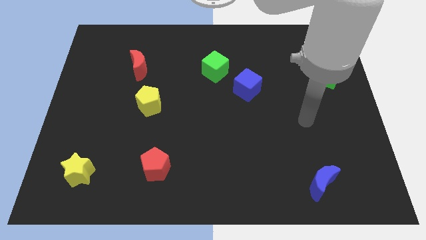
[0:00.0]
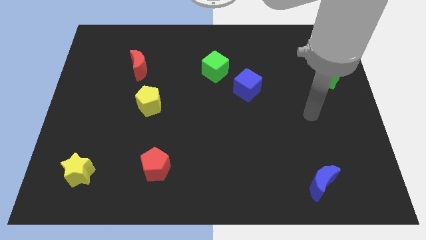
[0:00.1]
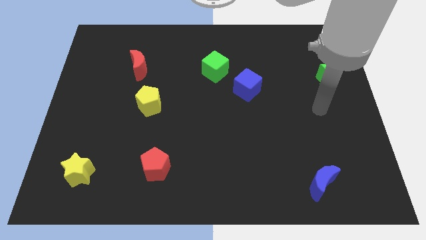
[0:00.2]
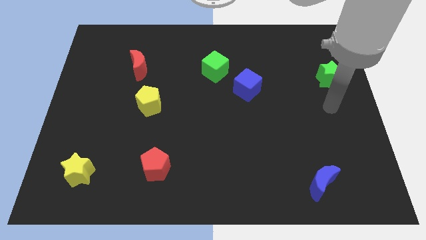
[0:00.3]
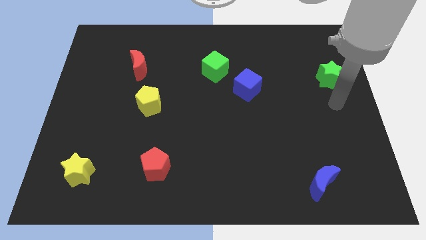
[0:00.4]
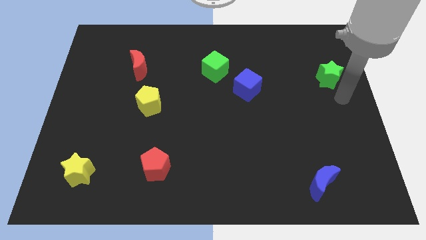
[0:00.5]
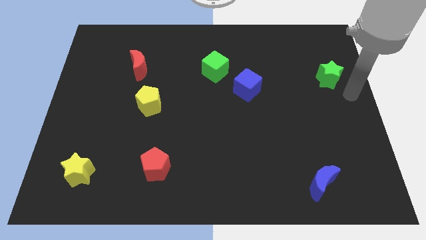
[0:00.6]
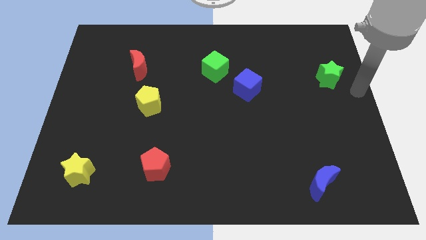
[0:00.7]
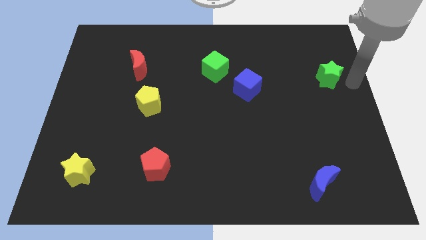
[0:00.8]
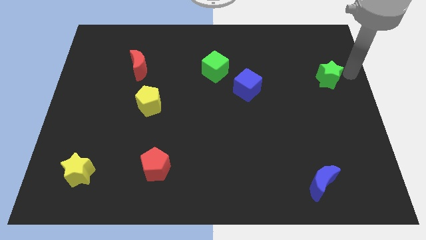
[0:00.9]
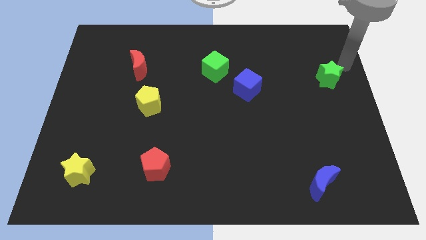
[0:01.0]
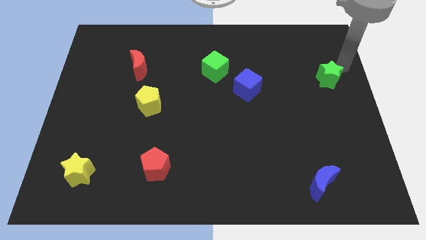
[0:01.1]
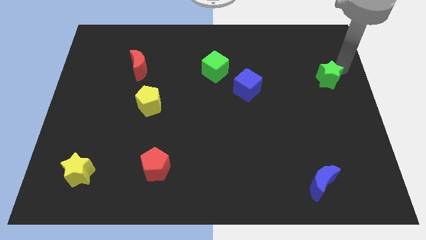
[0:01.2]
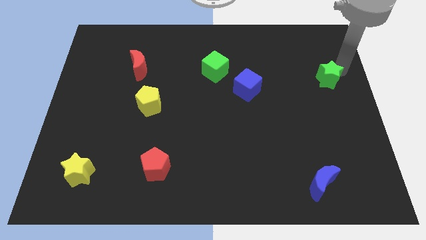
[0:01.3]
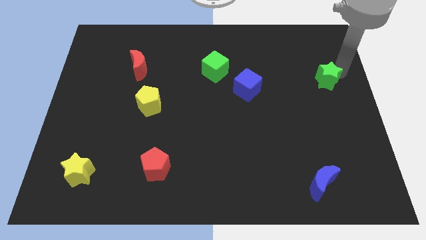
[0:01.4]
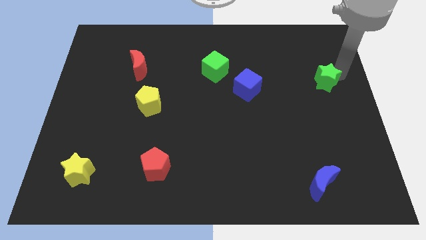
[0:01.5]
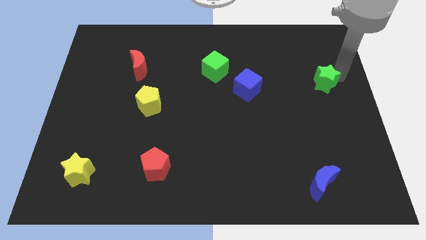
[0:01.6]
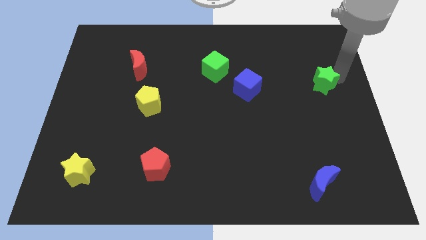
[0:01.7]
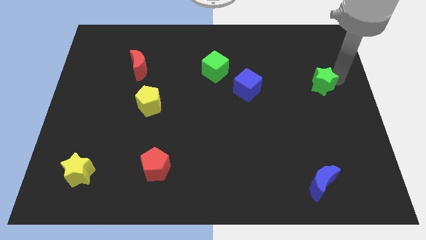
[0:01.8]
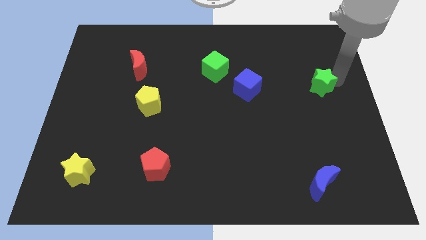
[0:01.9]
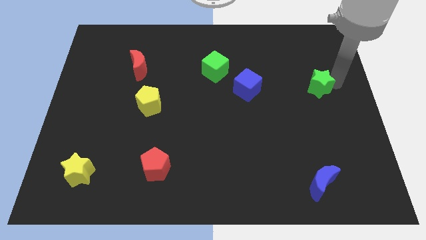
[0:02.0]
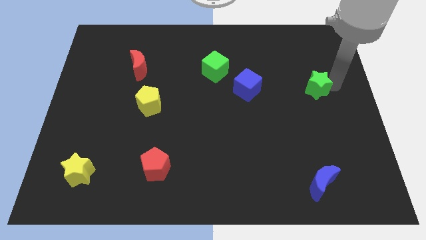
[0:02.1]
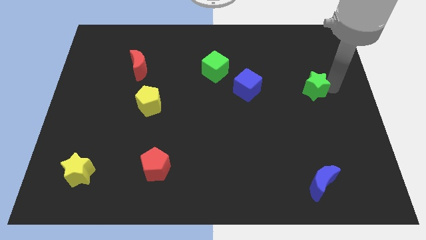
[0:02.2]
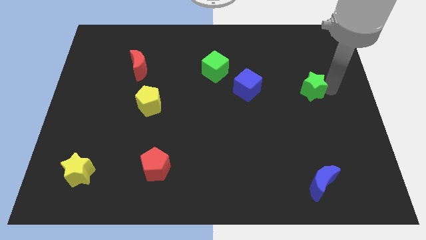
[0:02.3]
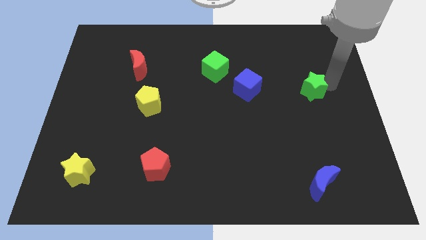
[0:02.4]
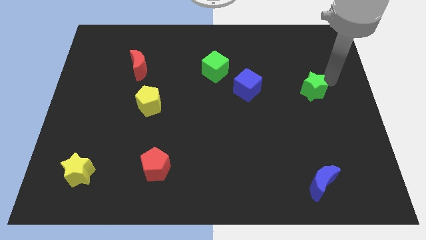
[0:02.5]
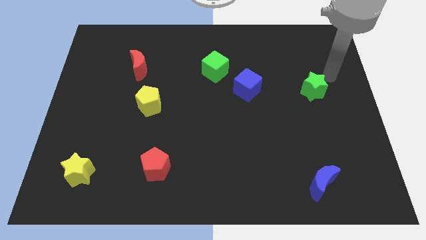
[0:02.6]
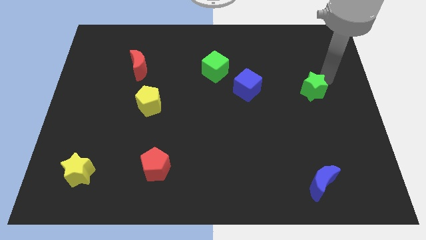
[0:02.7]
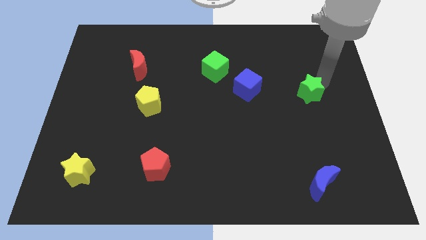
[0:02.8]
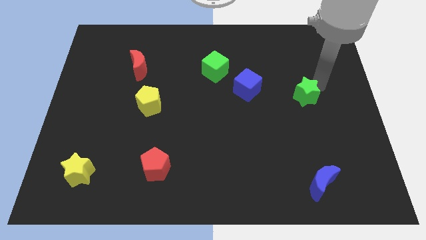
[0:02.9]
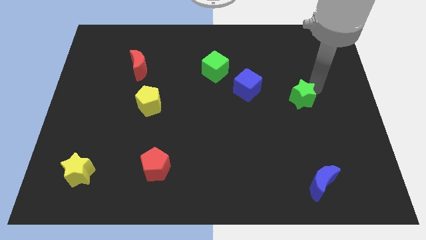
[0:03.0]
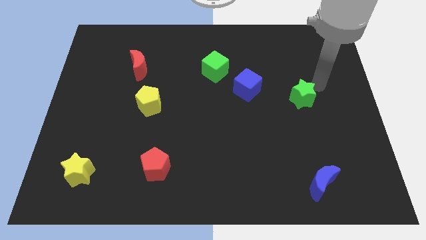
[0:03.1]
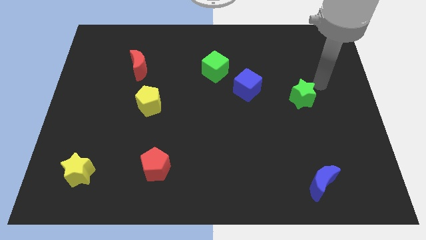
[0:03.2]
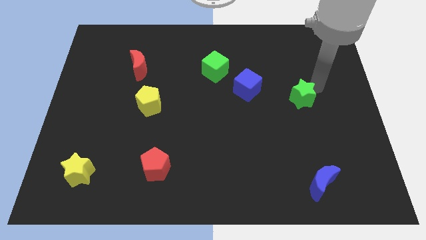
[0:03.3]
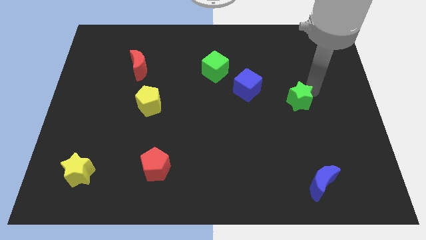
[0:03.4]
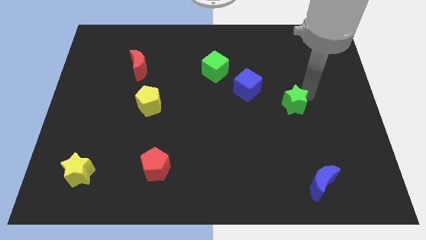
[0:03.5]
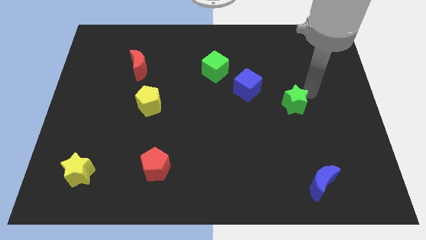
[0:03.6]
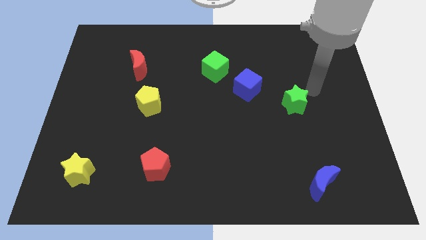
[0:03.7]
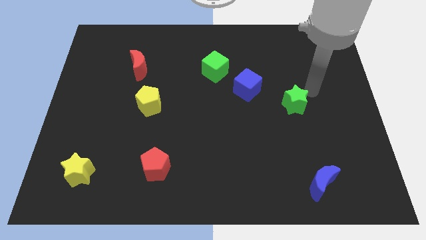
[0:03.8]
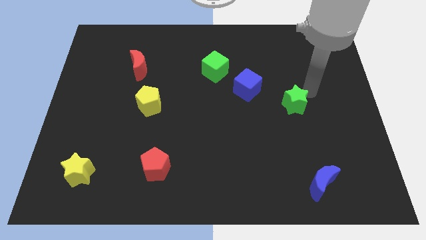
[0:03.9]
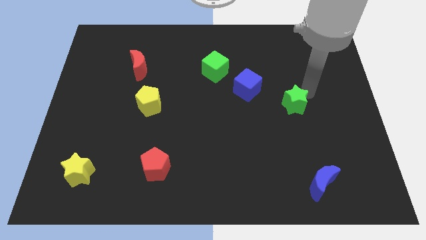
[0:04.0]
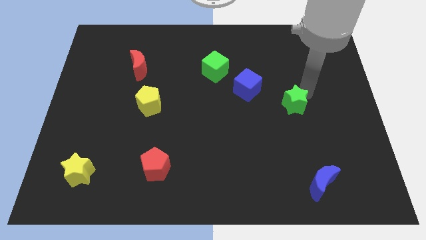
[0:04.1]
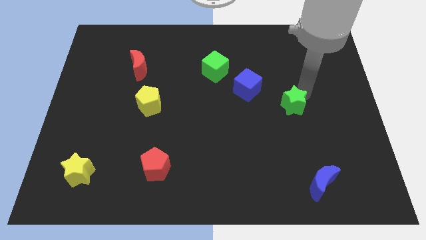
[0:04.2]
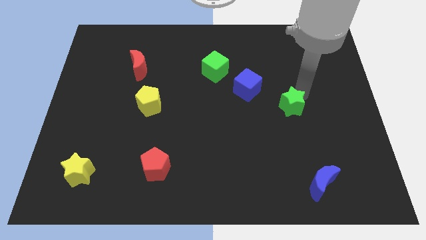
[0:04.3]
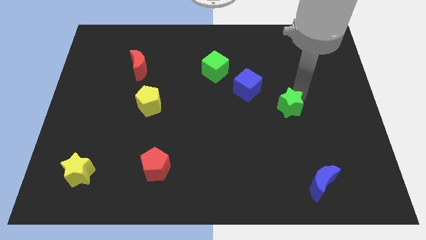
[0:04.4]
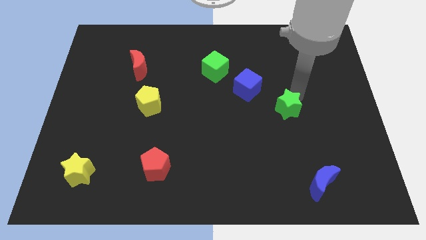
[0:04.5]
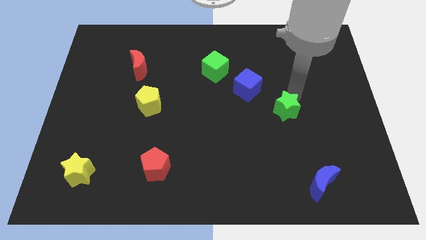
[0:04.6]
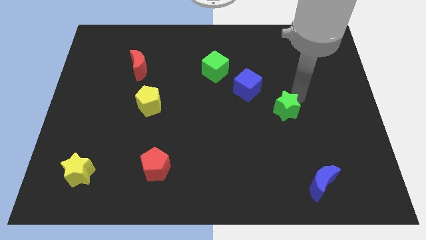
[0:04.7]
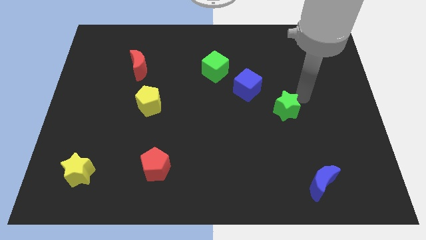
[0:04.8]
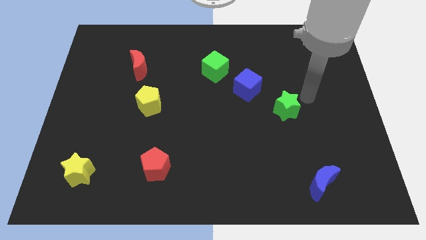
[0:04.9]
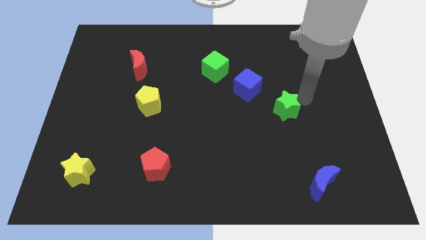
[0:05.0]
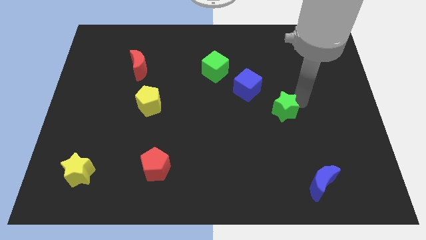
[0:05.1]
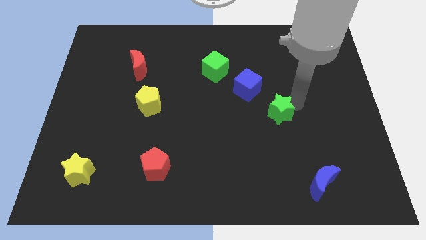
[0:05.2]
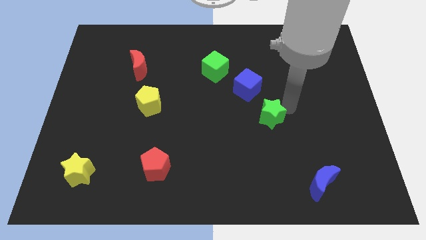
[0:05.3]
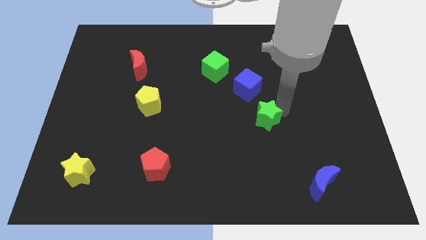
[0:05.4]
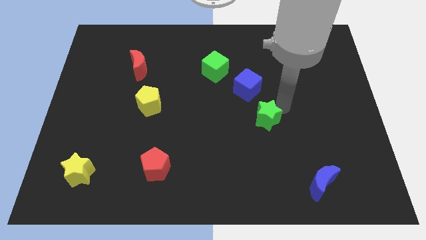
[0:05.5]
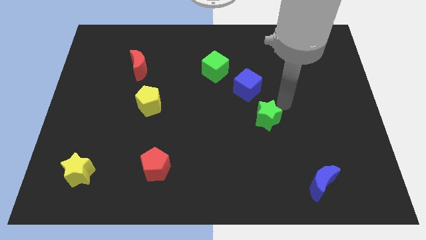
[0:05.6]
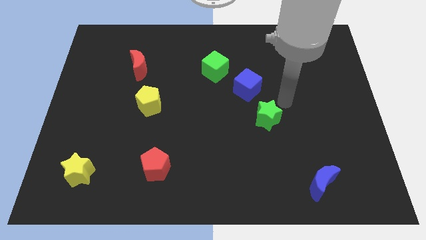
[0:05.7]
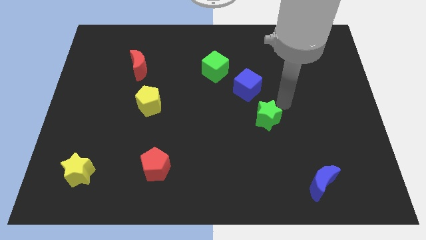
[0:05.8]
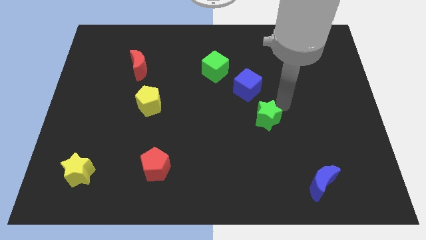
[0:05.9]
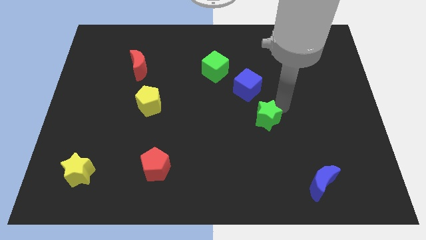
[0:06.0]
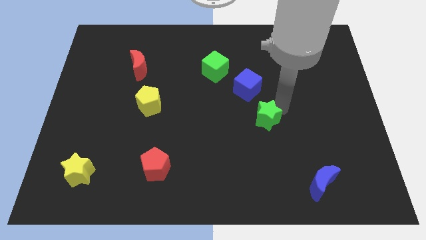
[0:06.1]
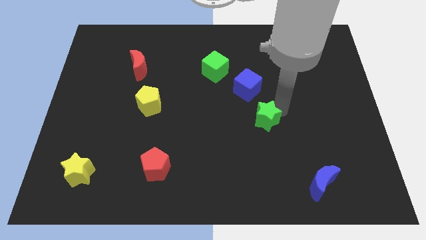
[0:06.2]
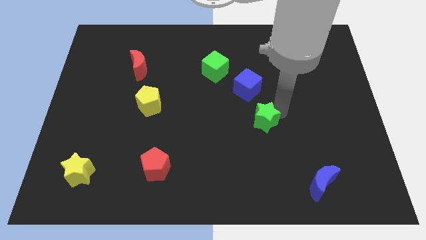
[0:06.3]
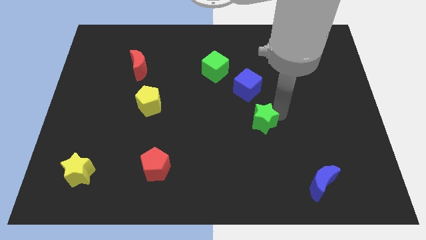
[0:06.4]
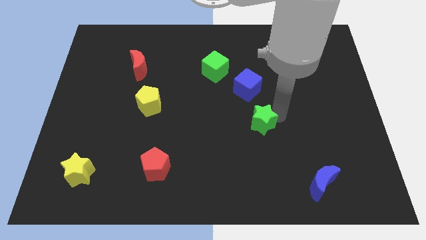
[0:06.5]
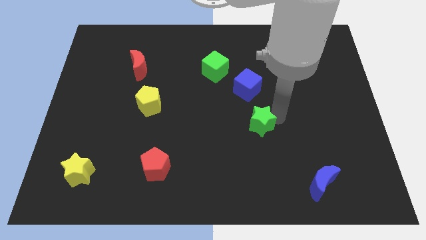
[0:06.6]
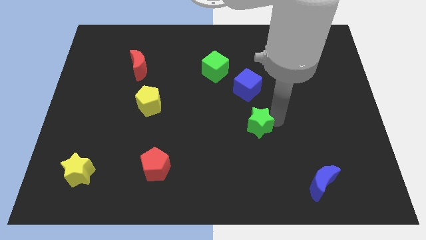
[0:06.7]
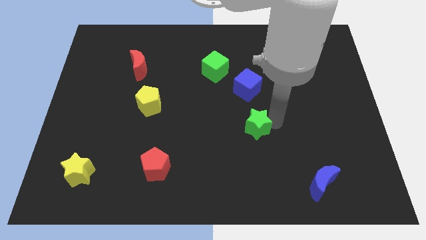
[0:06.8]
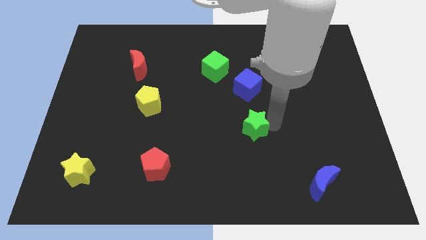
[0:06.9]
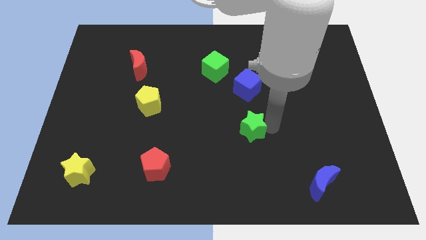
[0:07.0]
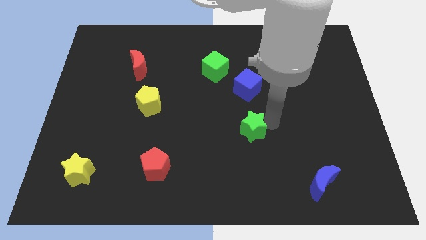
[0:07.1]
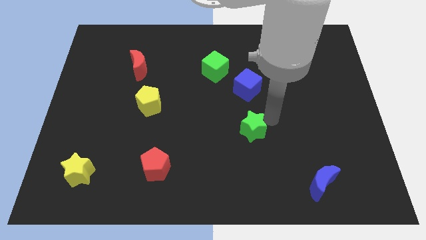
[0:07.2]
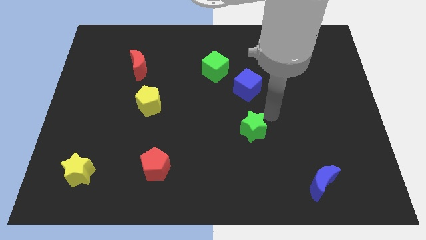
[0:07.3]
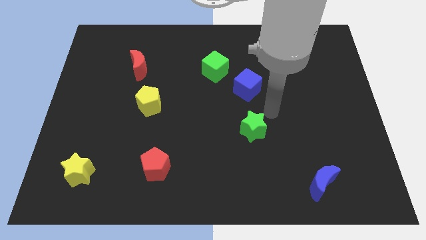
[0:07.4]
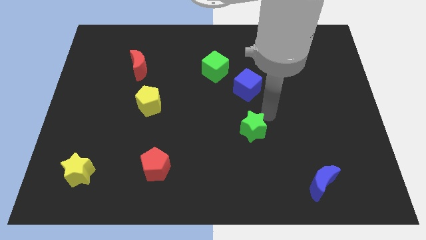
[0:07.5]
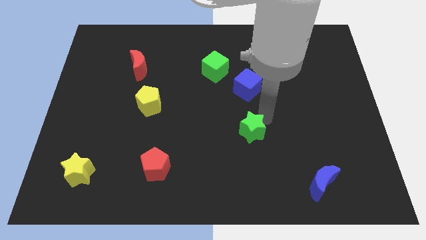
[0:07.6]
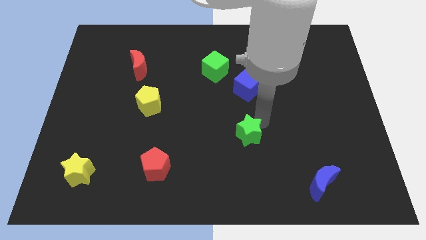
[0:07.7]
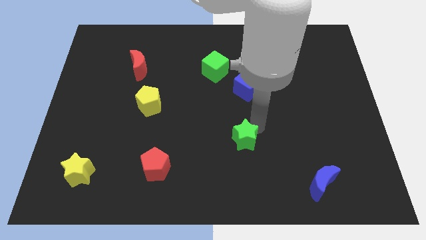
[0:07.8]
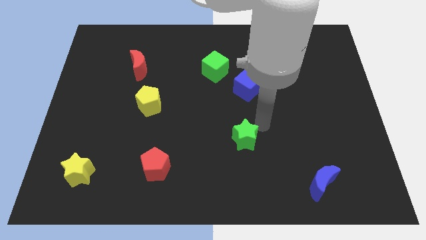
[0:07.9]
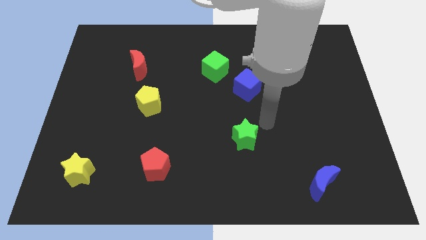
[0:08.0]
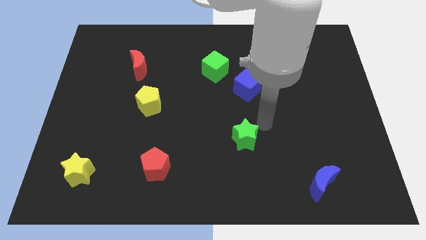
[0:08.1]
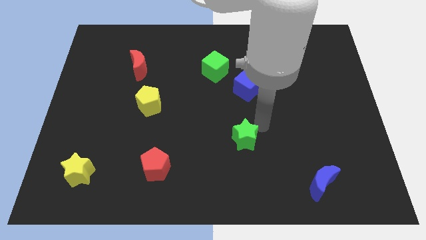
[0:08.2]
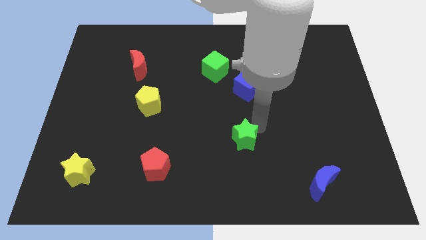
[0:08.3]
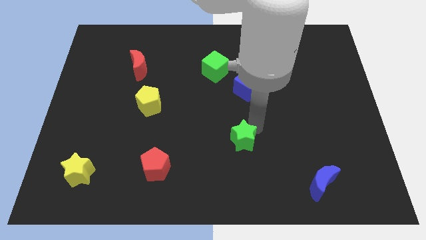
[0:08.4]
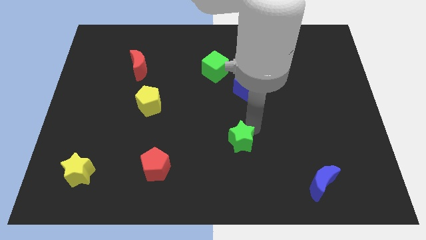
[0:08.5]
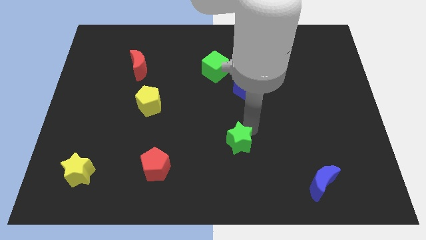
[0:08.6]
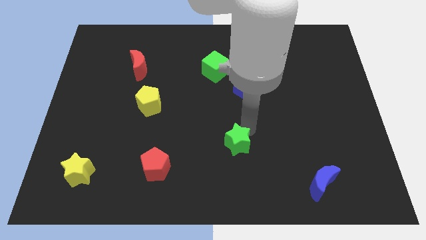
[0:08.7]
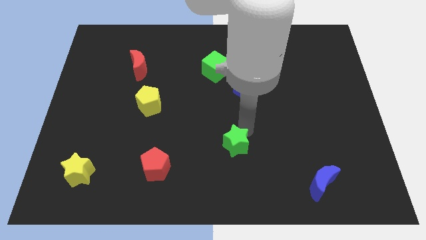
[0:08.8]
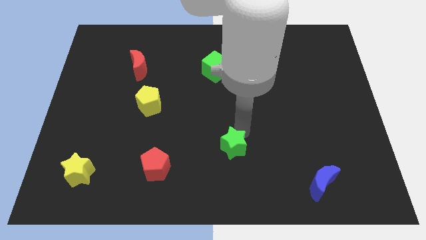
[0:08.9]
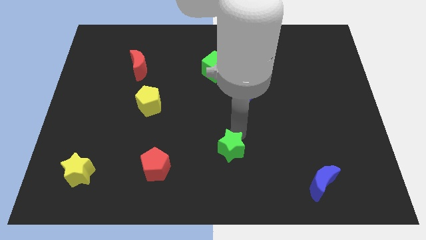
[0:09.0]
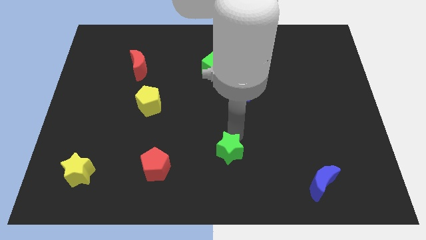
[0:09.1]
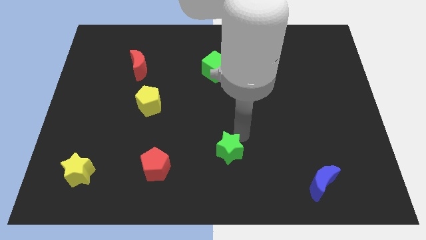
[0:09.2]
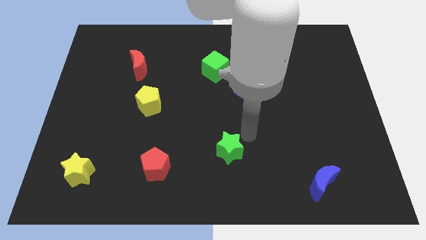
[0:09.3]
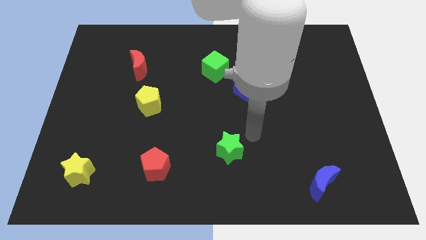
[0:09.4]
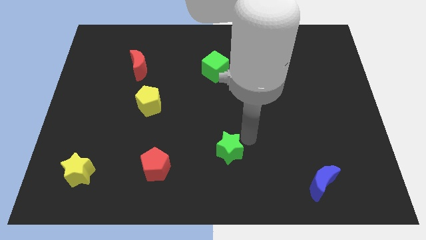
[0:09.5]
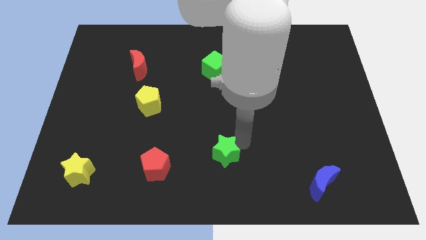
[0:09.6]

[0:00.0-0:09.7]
put the green star right of the red pentagon
